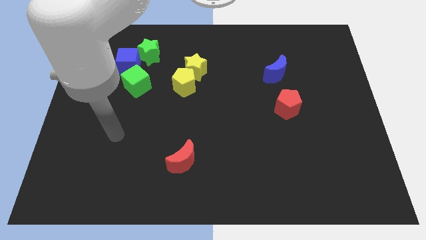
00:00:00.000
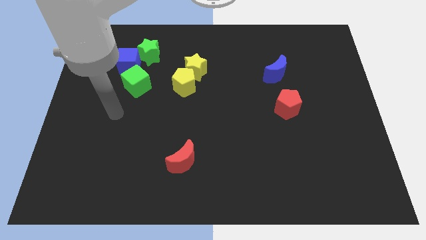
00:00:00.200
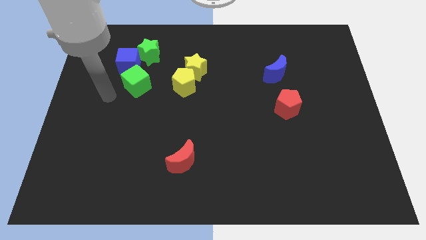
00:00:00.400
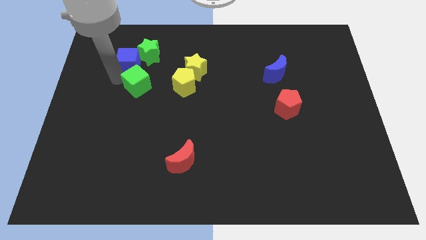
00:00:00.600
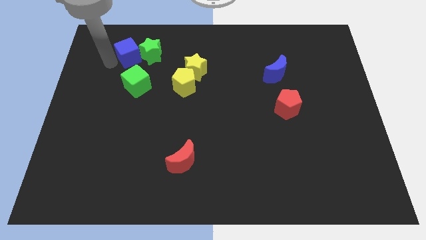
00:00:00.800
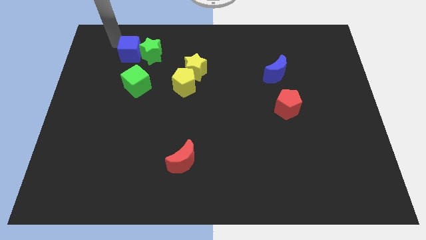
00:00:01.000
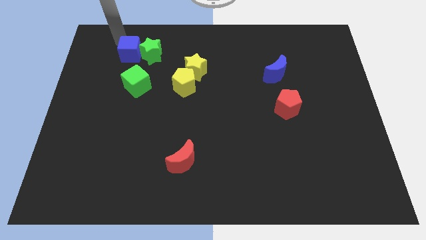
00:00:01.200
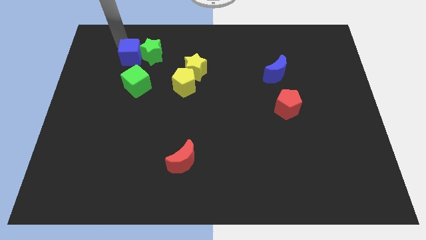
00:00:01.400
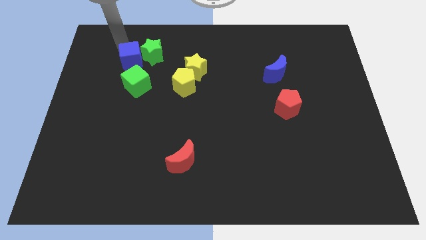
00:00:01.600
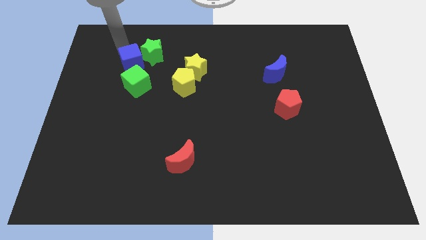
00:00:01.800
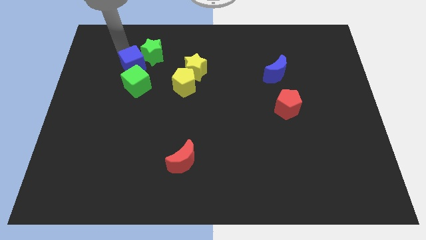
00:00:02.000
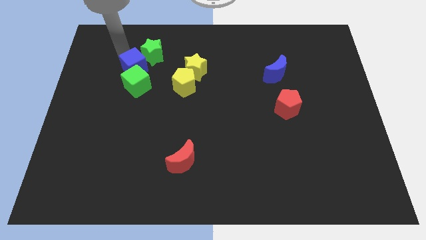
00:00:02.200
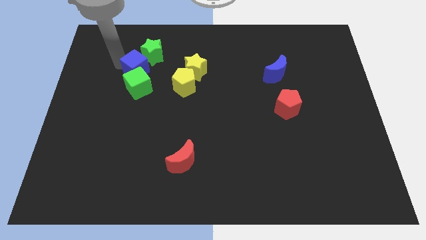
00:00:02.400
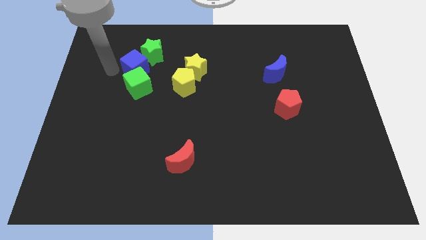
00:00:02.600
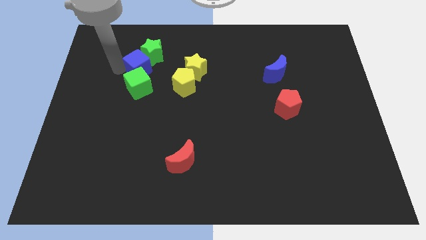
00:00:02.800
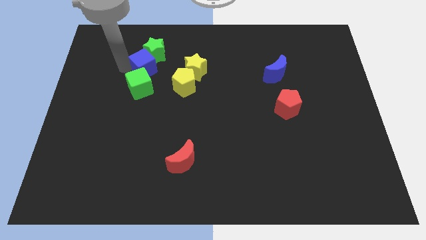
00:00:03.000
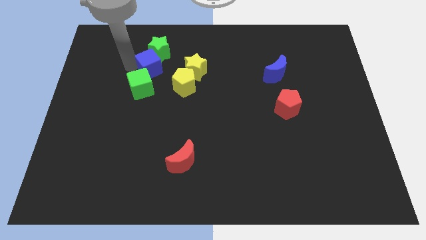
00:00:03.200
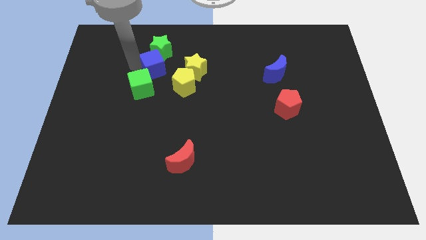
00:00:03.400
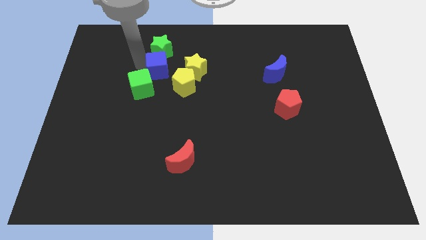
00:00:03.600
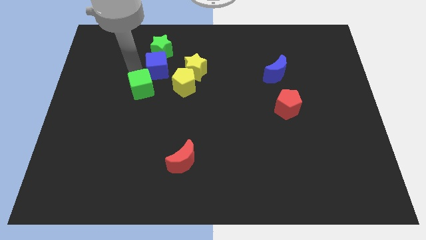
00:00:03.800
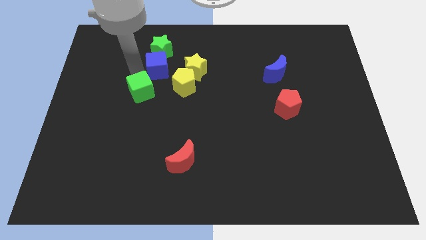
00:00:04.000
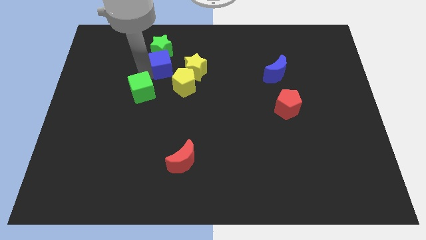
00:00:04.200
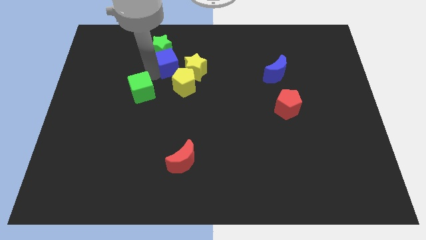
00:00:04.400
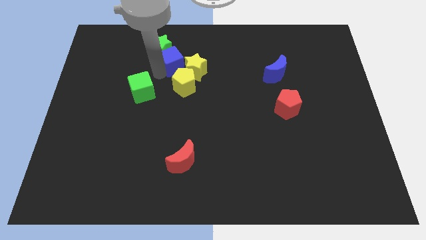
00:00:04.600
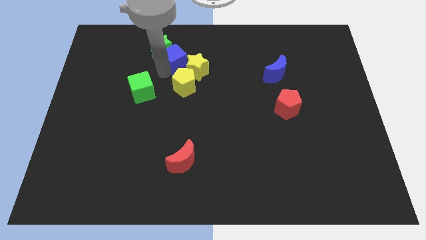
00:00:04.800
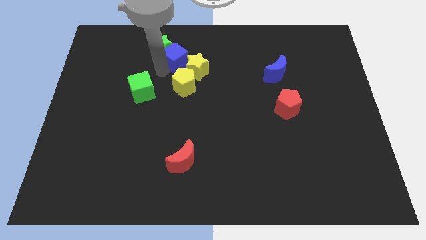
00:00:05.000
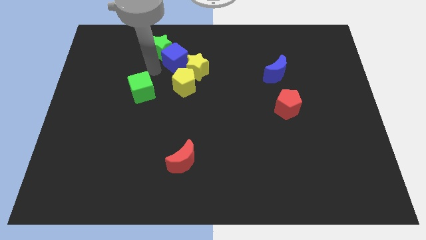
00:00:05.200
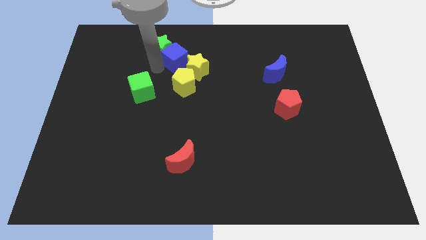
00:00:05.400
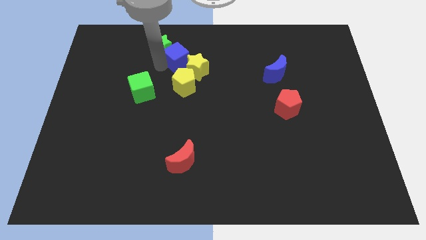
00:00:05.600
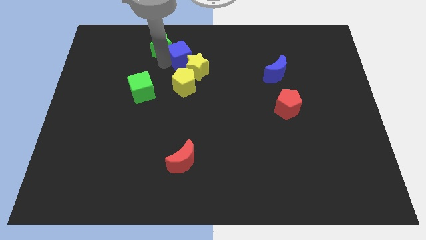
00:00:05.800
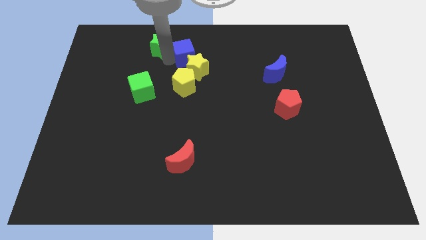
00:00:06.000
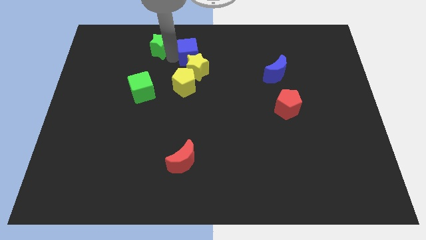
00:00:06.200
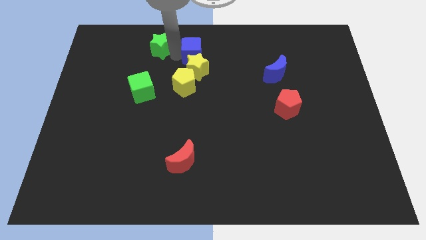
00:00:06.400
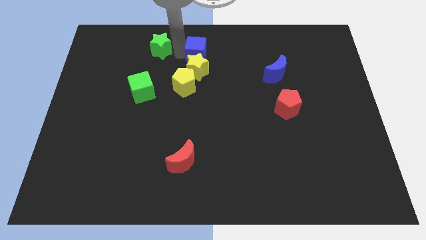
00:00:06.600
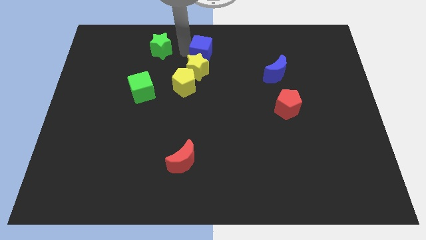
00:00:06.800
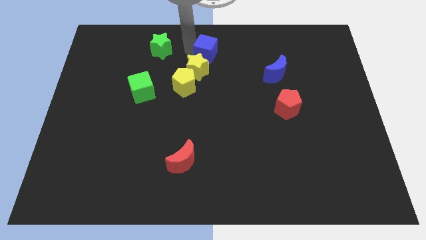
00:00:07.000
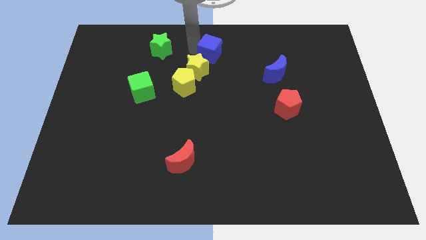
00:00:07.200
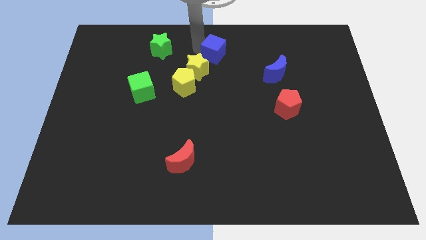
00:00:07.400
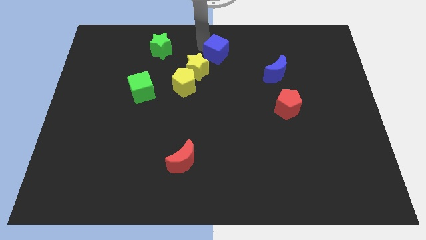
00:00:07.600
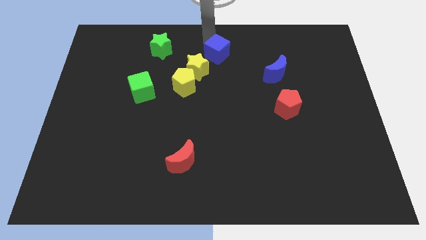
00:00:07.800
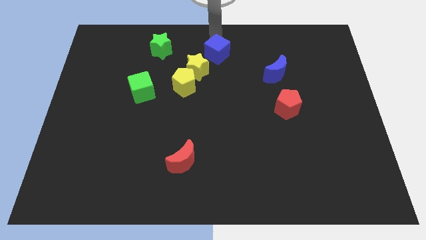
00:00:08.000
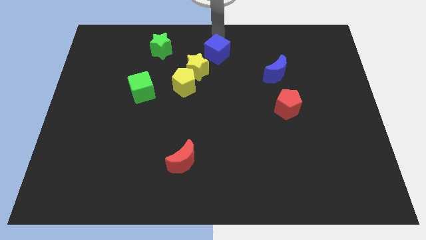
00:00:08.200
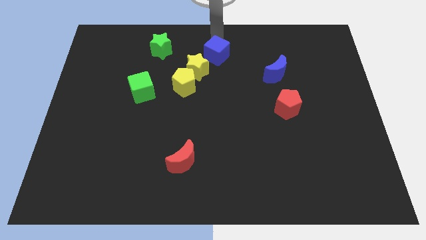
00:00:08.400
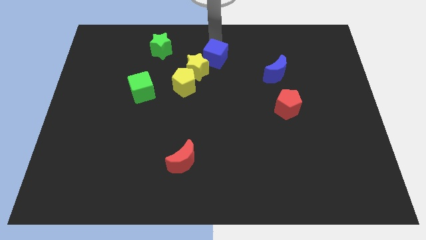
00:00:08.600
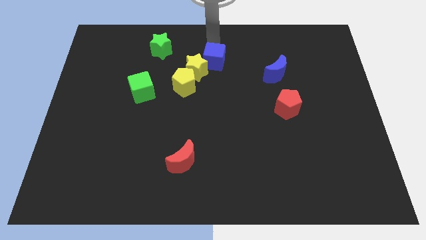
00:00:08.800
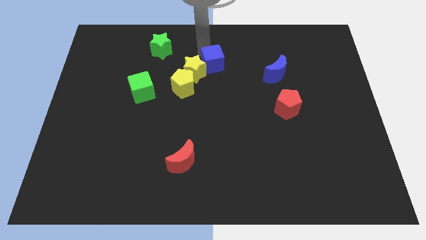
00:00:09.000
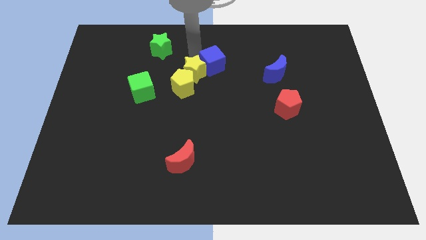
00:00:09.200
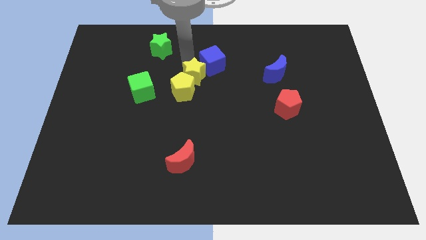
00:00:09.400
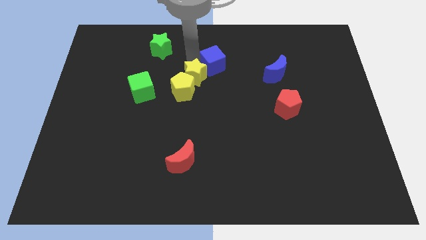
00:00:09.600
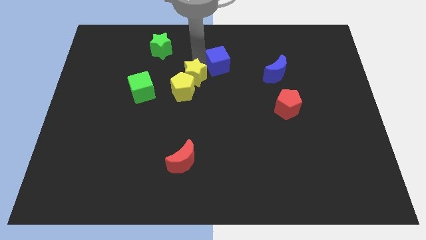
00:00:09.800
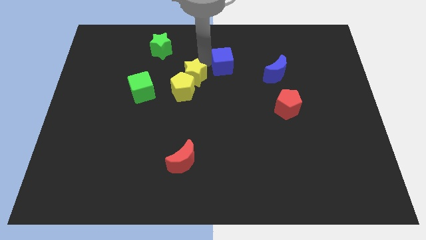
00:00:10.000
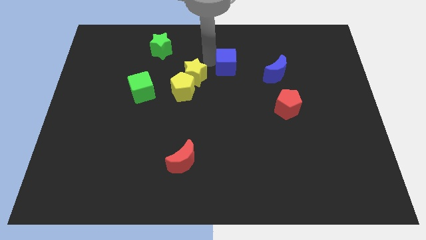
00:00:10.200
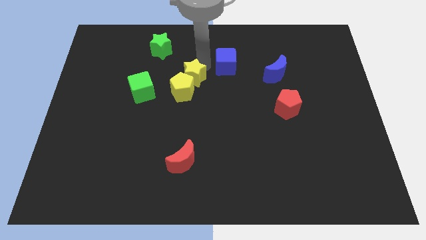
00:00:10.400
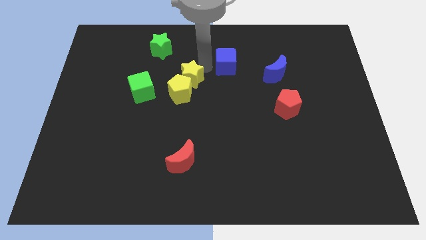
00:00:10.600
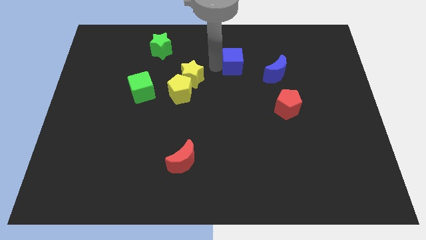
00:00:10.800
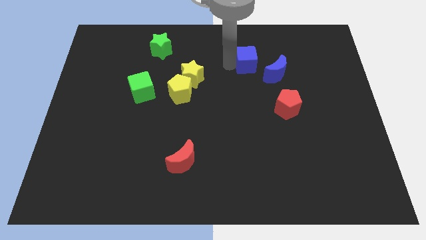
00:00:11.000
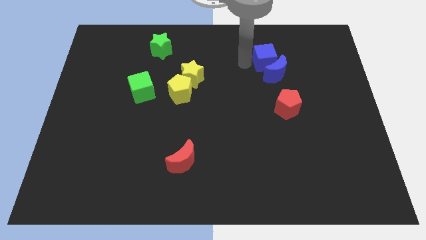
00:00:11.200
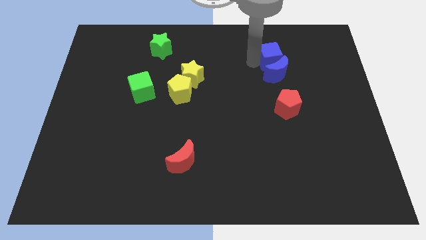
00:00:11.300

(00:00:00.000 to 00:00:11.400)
slide the blue cube to the top right of the blue moon
